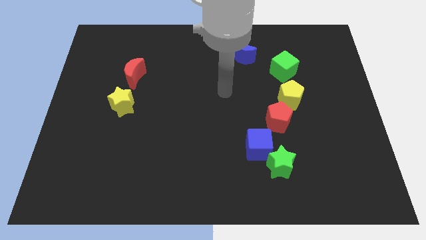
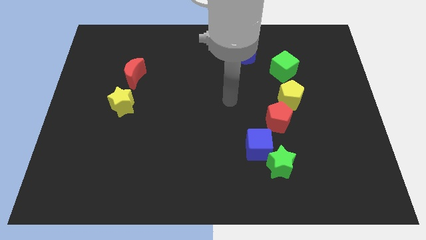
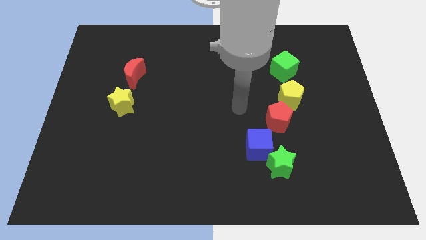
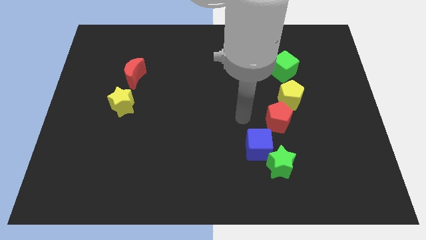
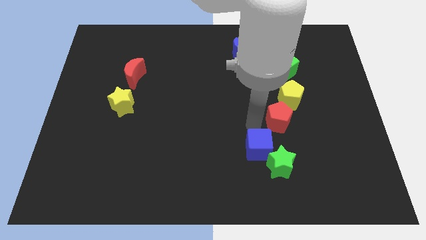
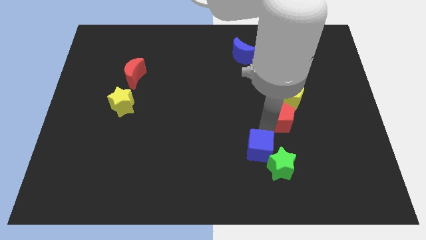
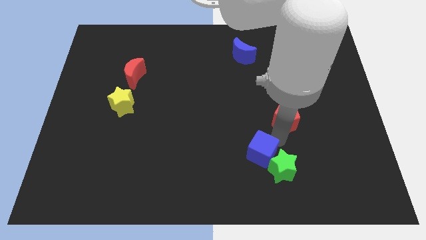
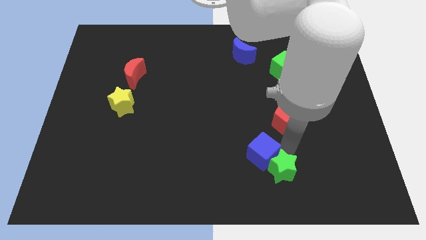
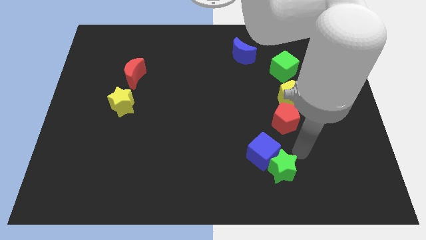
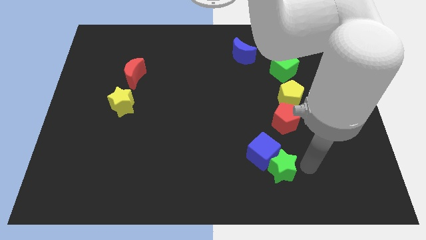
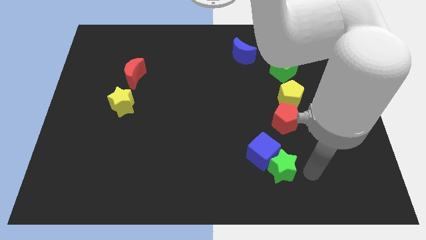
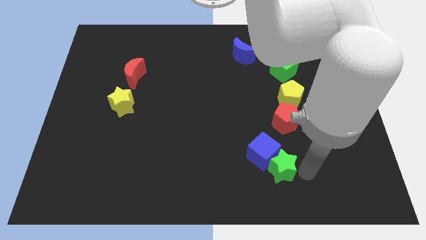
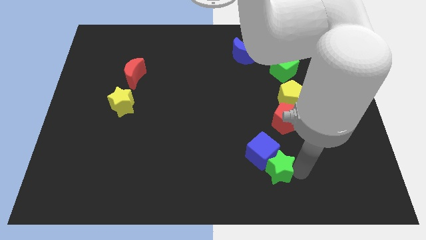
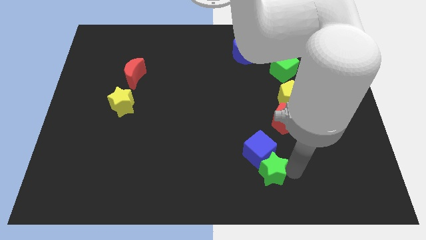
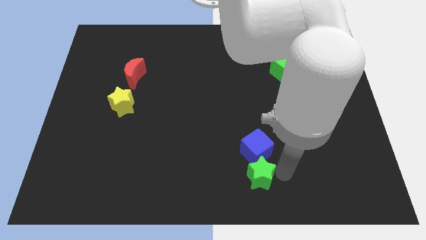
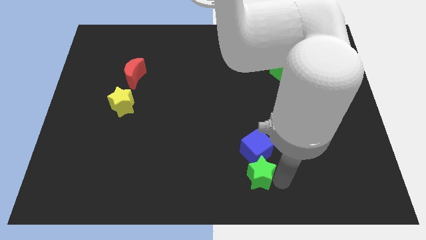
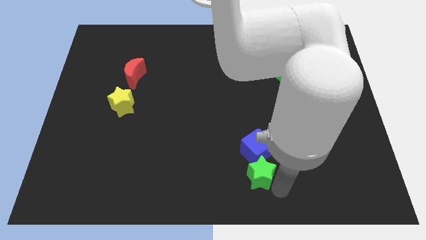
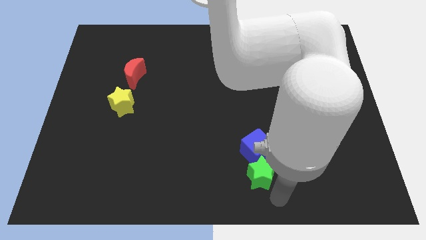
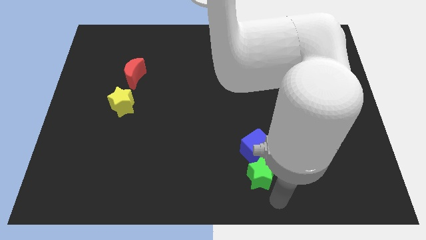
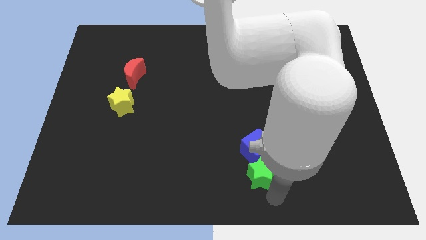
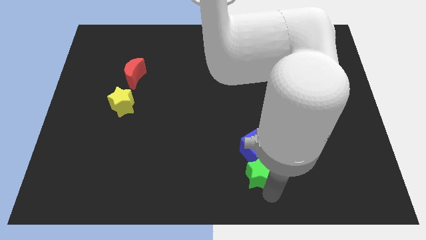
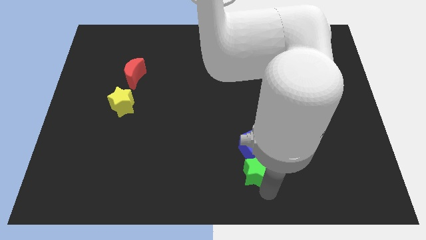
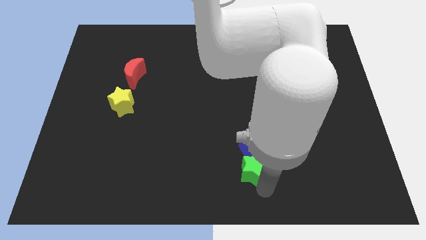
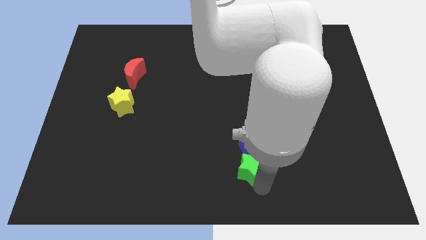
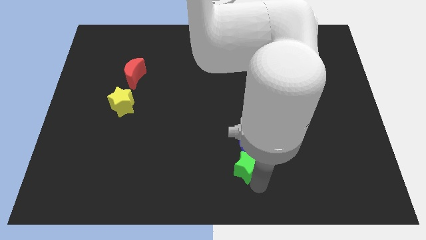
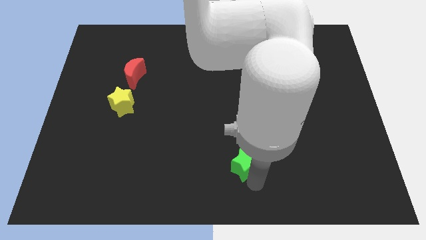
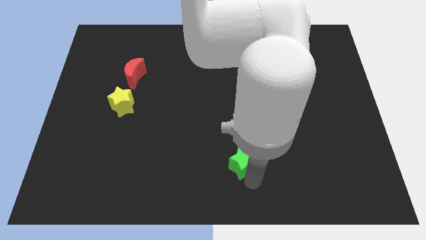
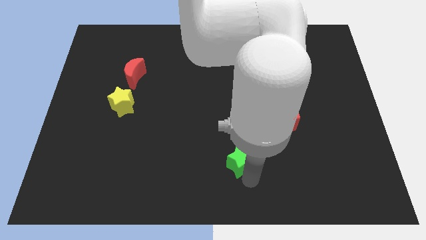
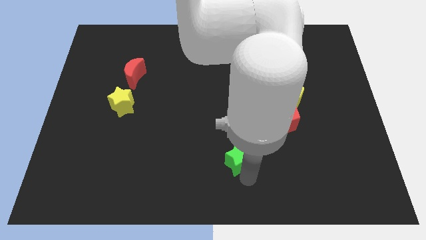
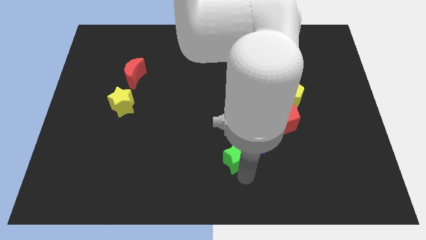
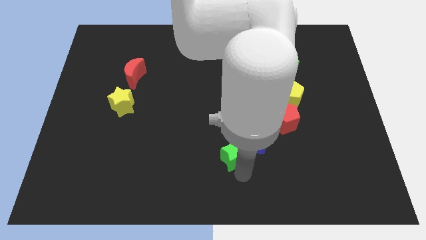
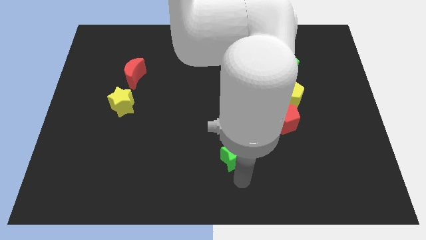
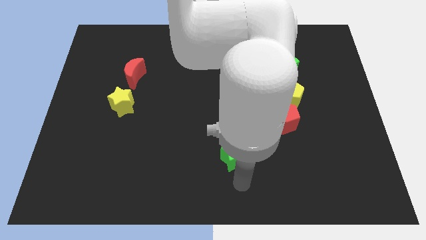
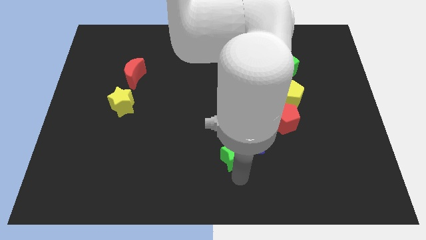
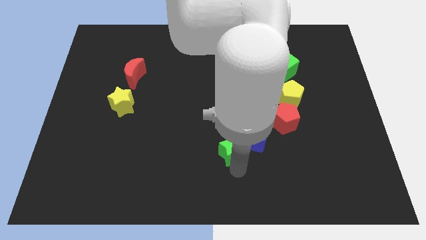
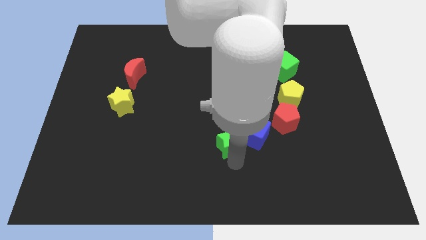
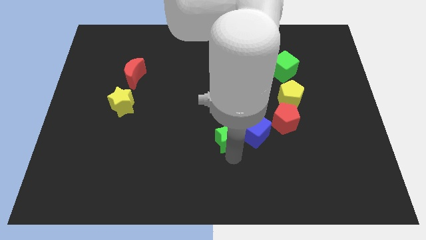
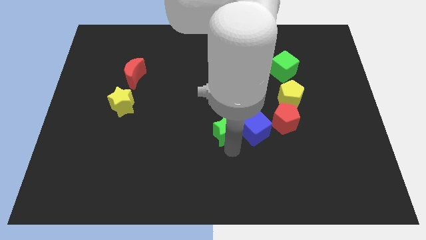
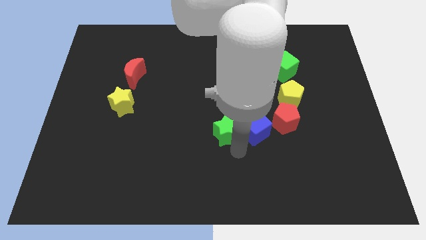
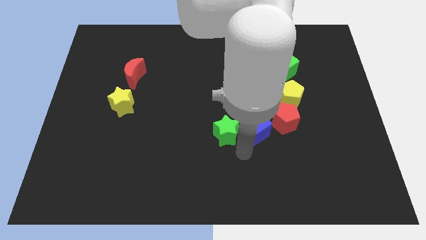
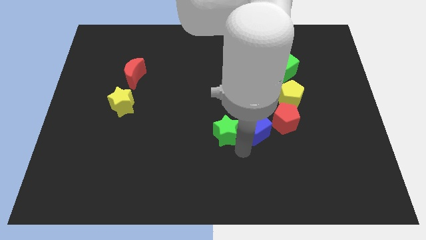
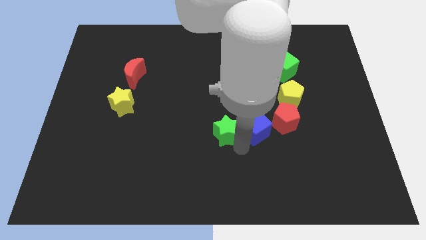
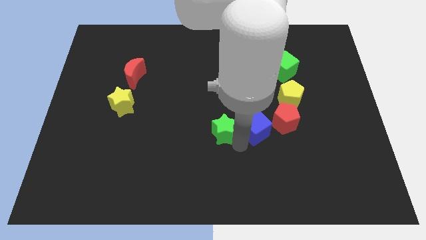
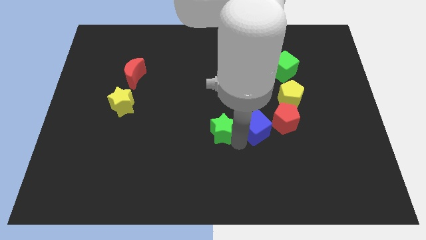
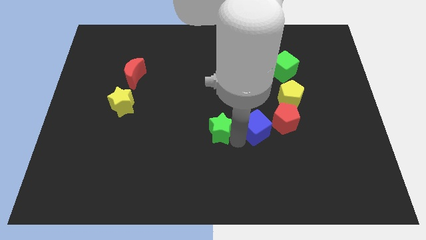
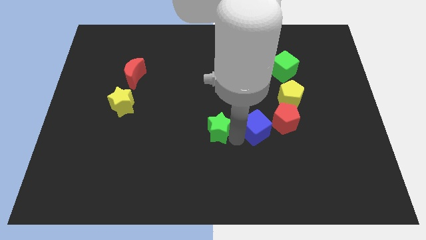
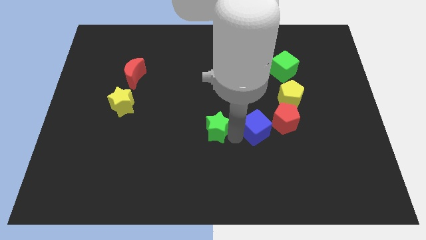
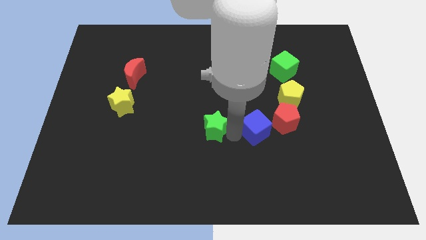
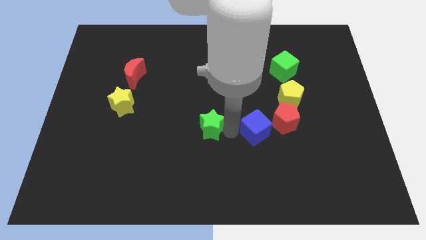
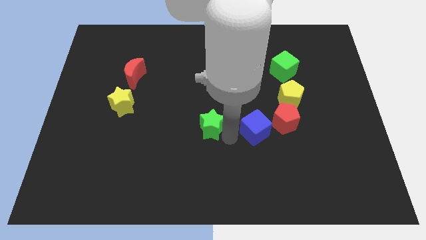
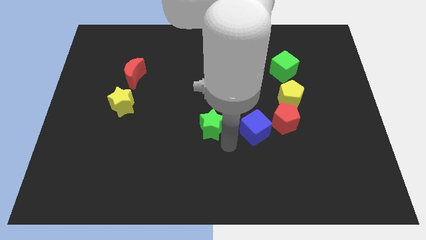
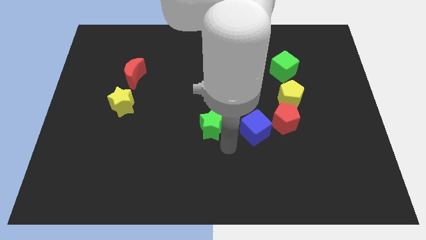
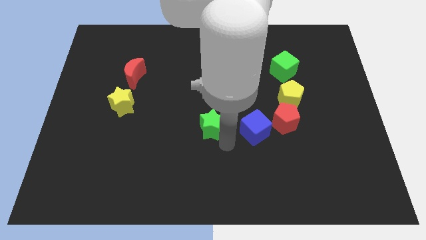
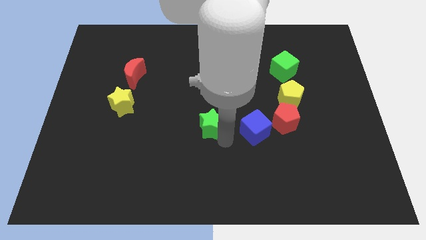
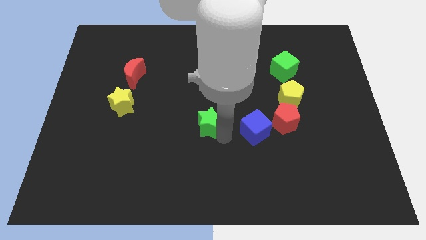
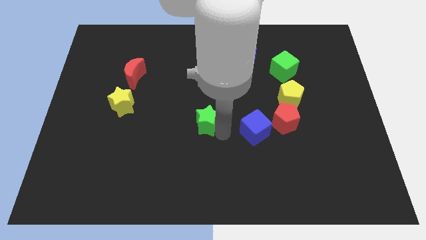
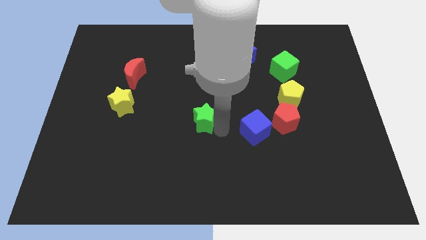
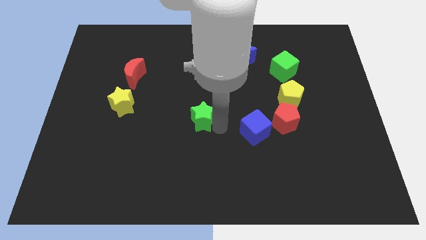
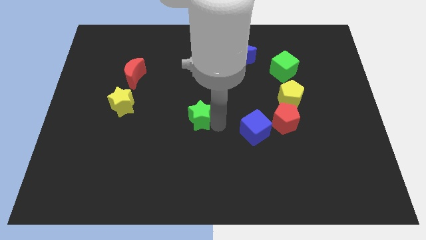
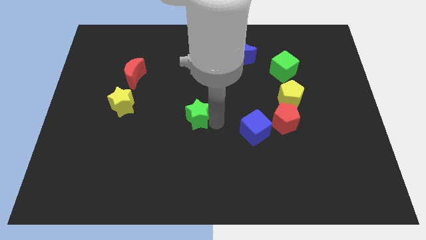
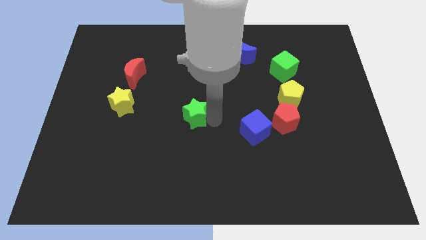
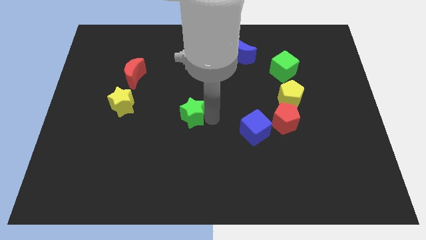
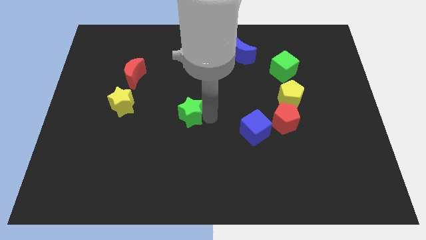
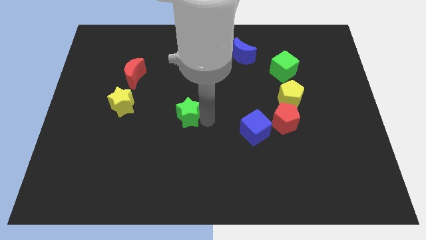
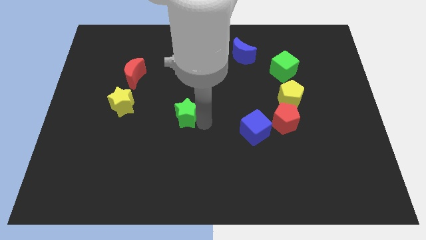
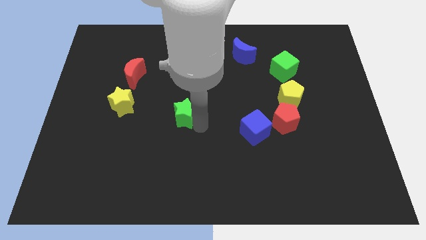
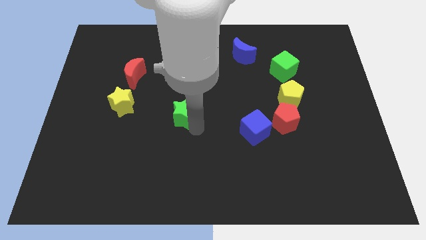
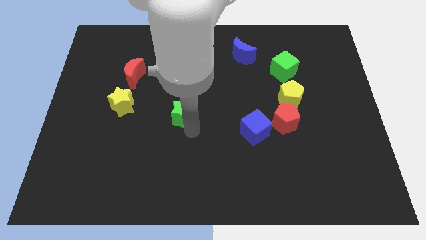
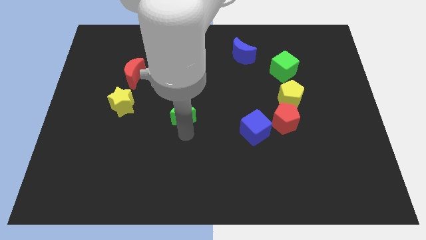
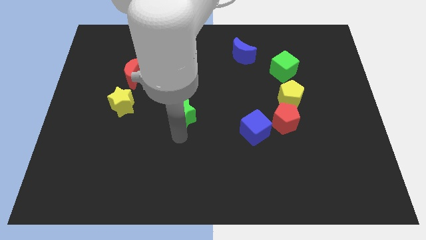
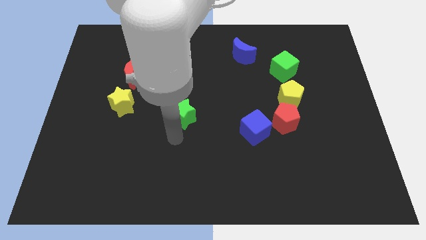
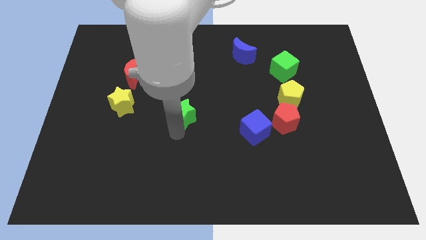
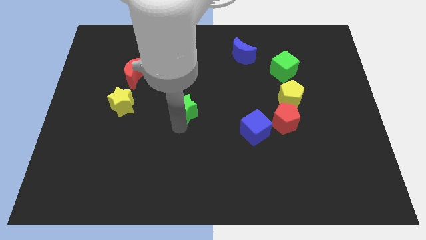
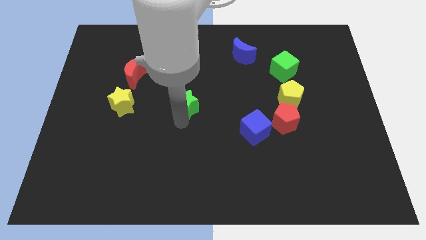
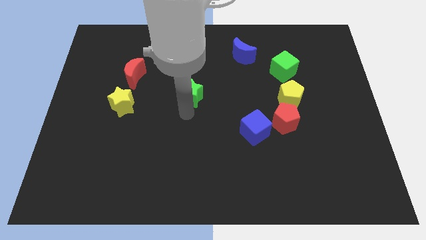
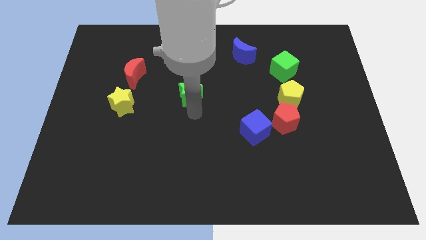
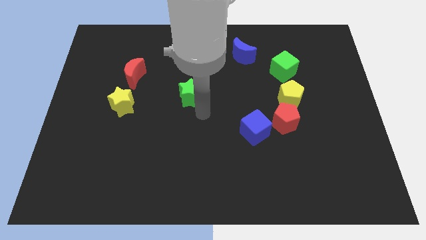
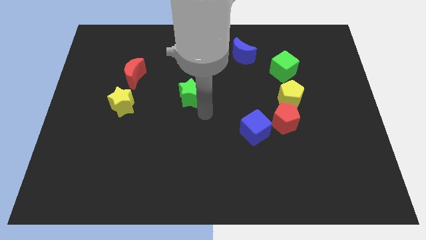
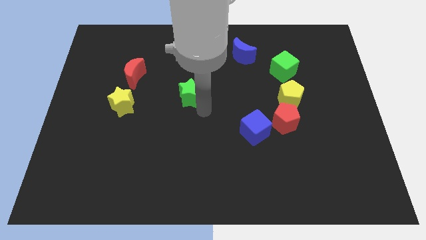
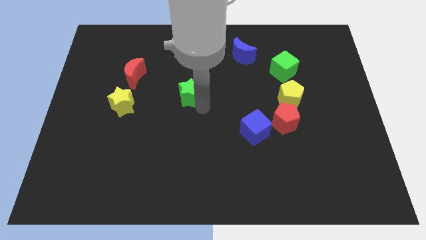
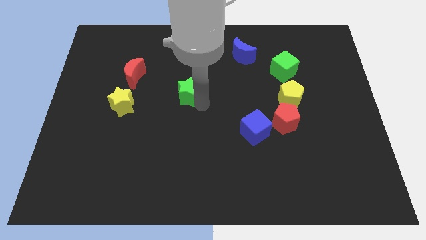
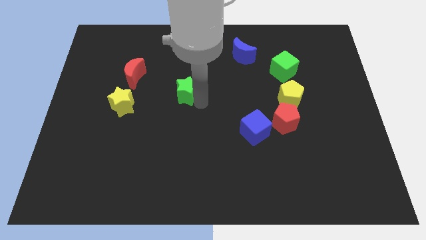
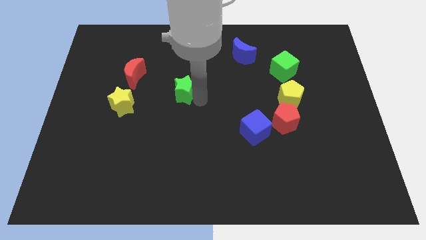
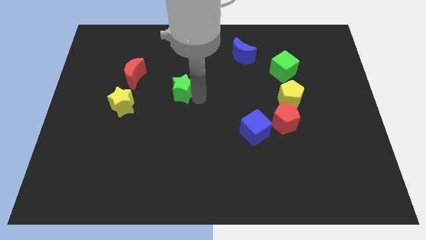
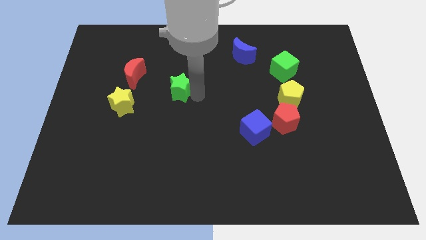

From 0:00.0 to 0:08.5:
slide the green star to the right of the red moon
